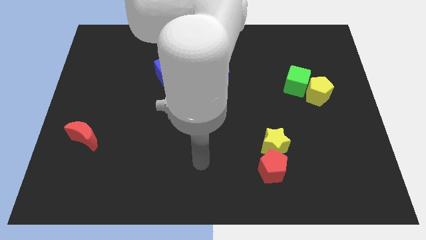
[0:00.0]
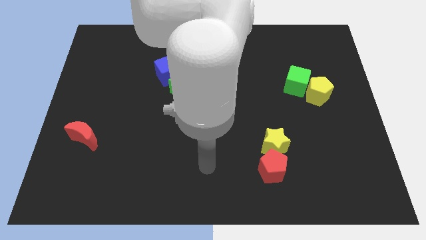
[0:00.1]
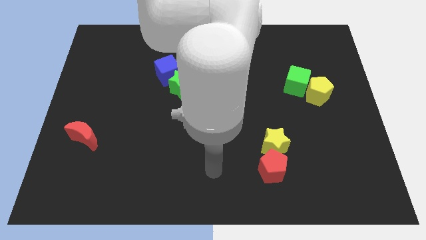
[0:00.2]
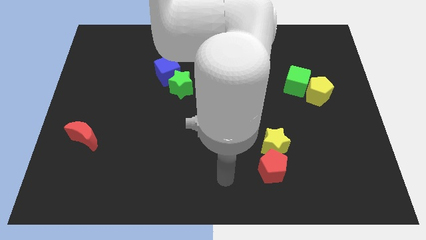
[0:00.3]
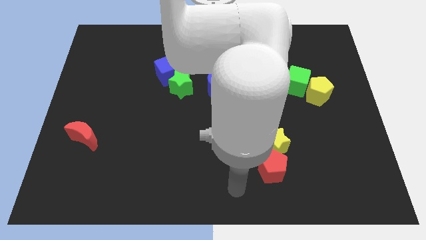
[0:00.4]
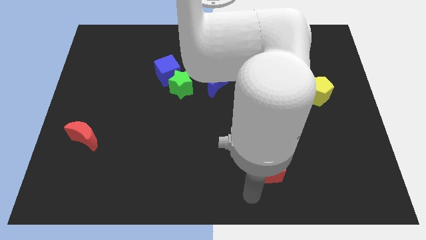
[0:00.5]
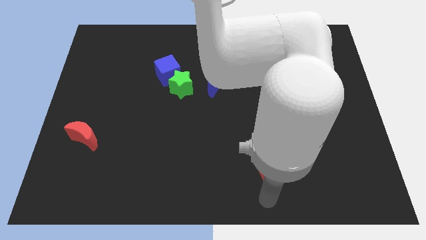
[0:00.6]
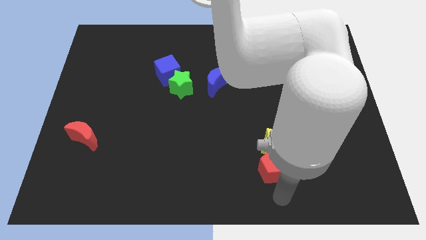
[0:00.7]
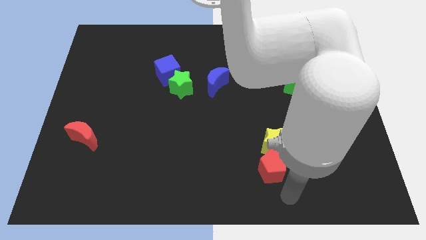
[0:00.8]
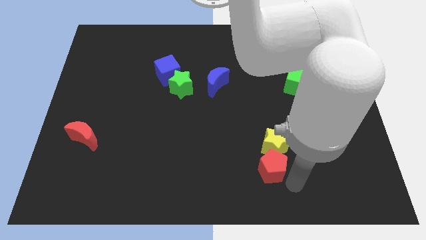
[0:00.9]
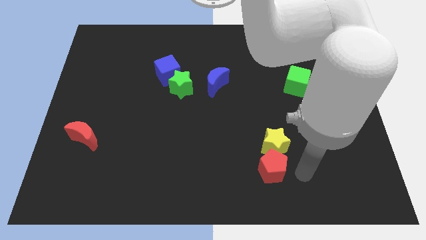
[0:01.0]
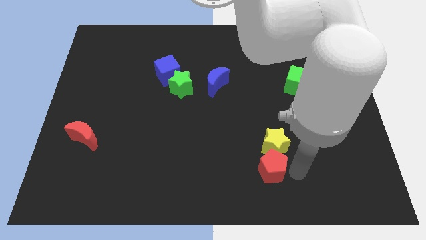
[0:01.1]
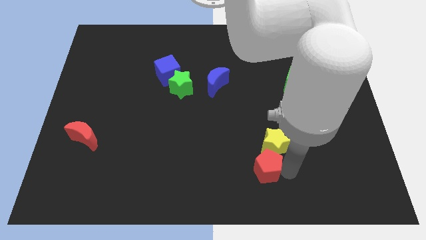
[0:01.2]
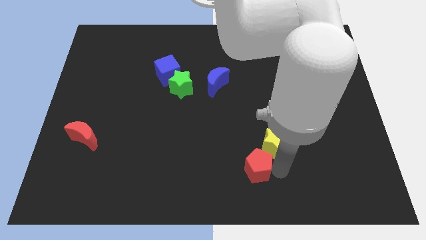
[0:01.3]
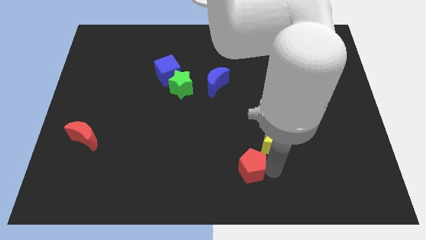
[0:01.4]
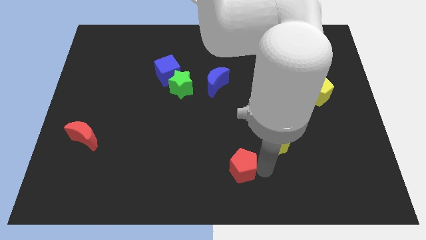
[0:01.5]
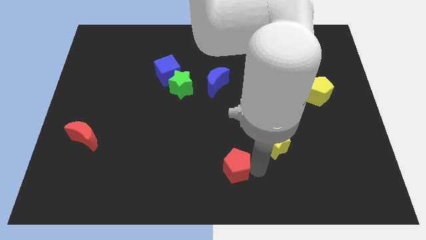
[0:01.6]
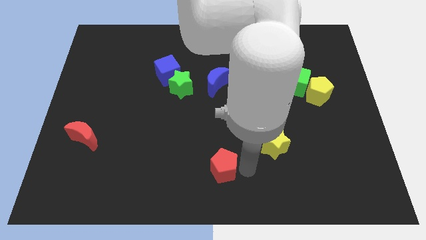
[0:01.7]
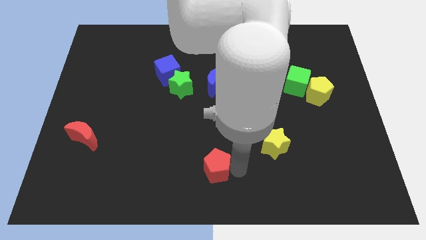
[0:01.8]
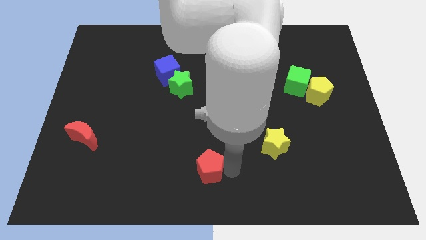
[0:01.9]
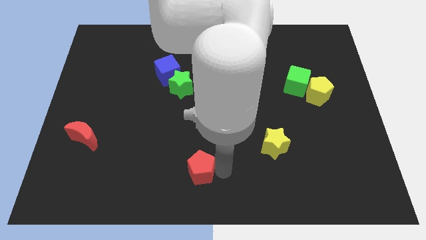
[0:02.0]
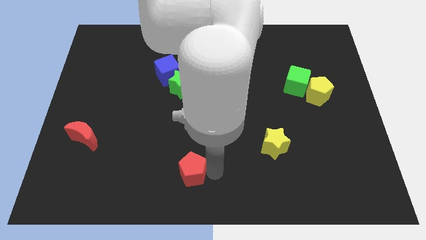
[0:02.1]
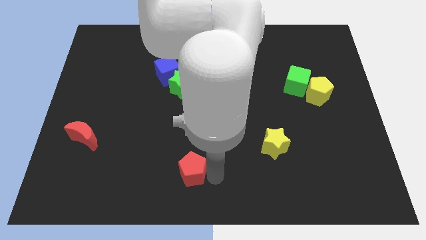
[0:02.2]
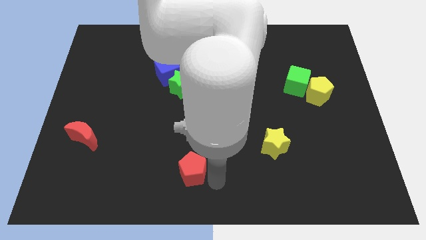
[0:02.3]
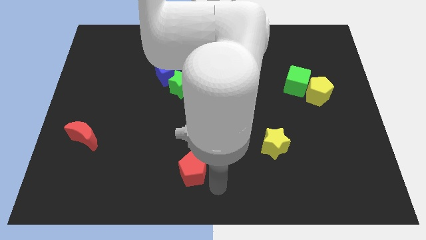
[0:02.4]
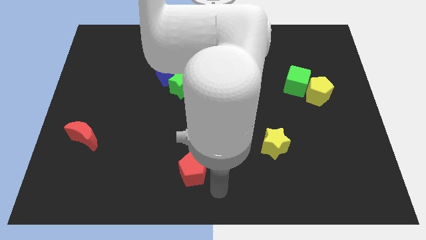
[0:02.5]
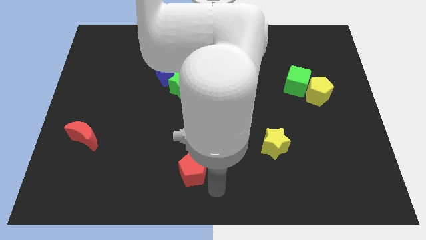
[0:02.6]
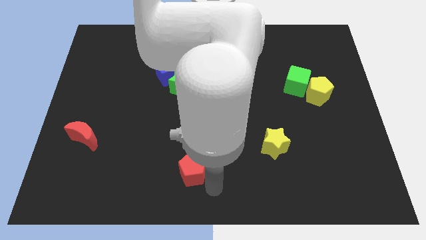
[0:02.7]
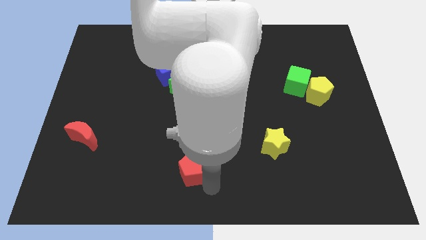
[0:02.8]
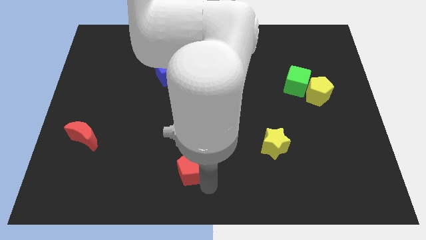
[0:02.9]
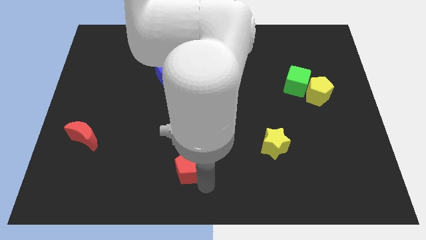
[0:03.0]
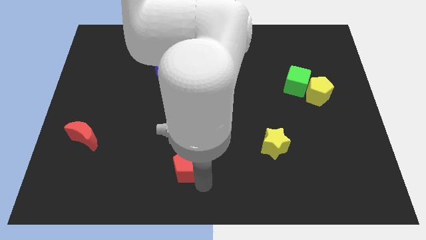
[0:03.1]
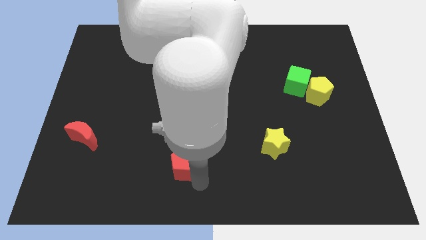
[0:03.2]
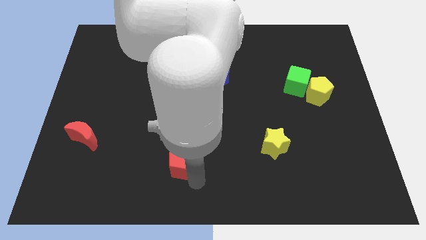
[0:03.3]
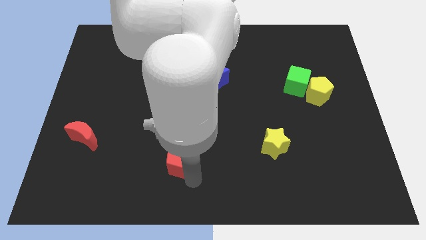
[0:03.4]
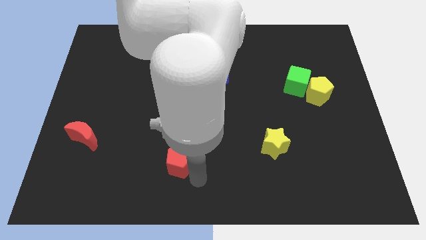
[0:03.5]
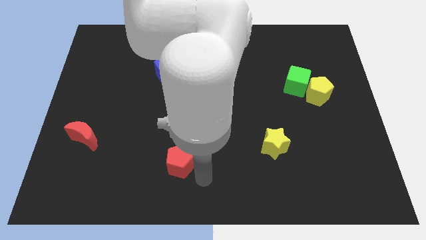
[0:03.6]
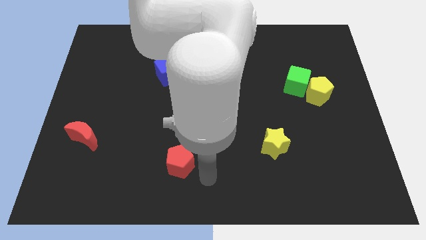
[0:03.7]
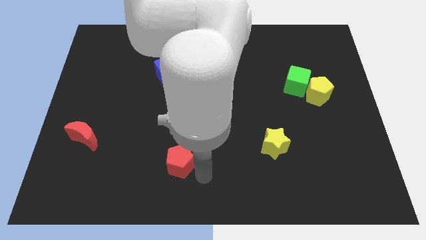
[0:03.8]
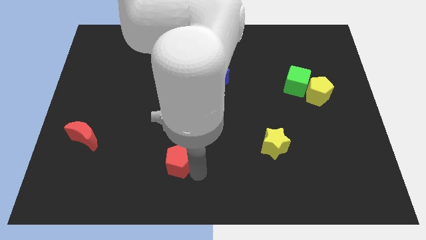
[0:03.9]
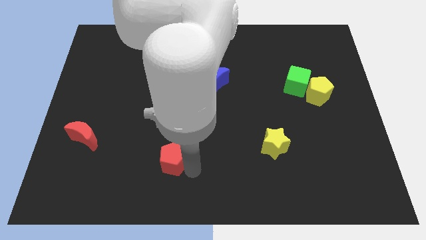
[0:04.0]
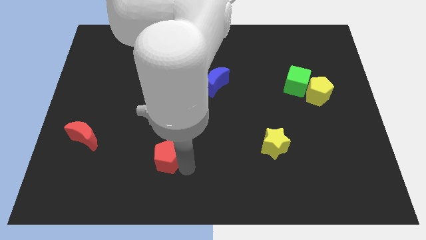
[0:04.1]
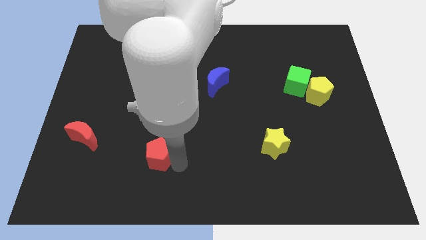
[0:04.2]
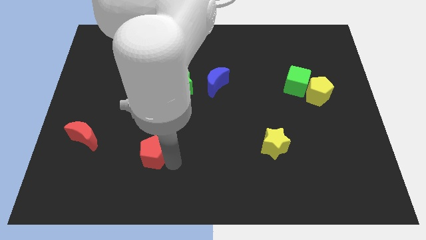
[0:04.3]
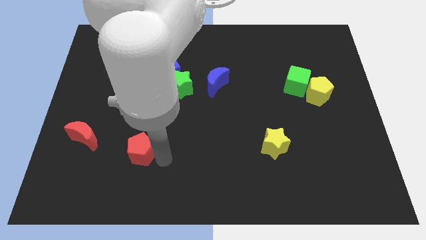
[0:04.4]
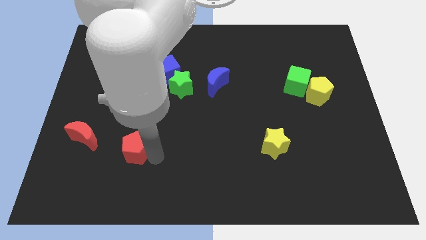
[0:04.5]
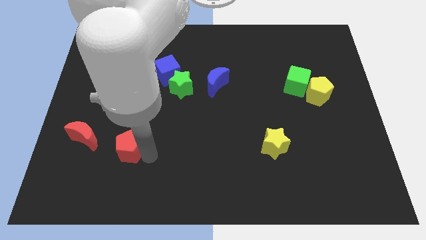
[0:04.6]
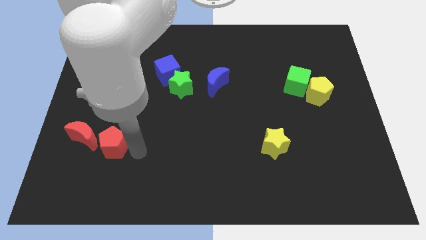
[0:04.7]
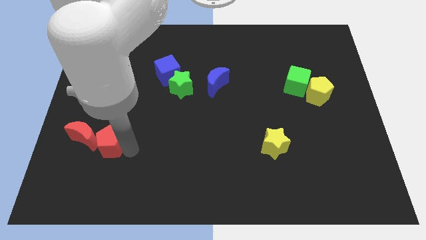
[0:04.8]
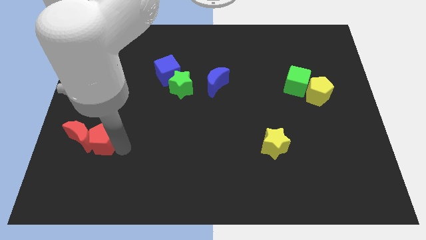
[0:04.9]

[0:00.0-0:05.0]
push the red pentagon towards the red moon

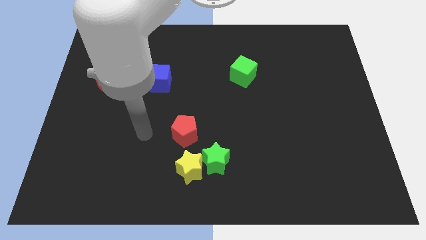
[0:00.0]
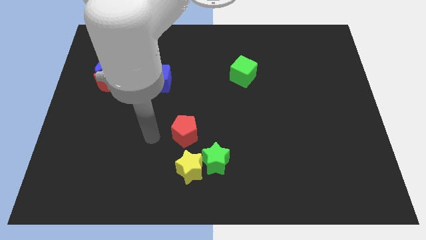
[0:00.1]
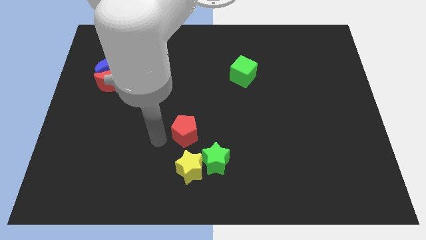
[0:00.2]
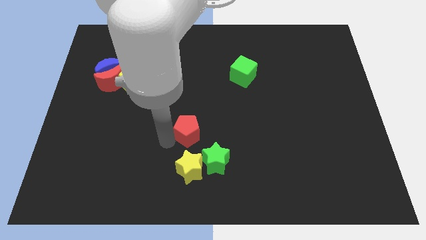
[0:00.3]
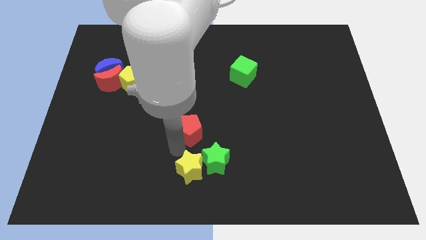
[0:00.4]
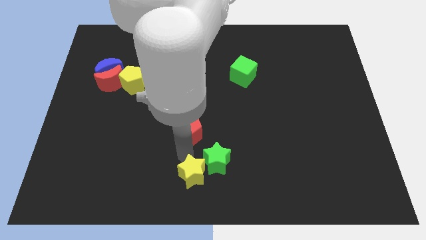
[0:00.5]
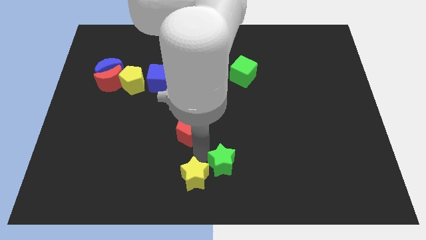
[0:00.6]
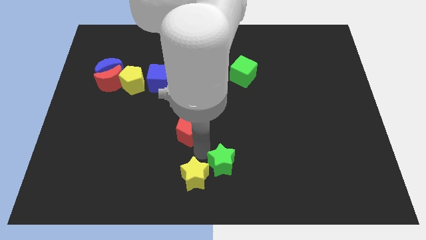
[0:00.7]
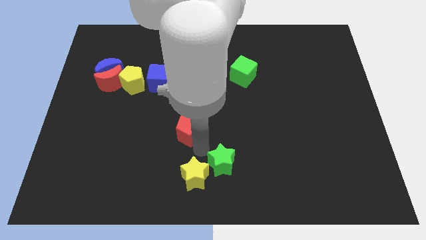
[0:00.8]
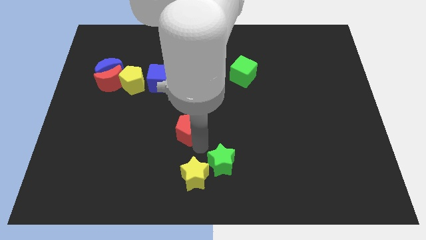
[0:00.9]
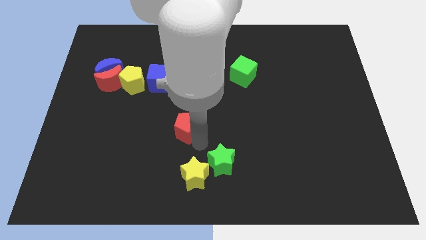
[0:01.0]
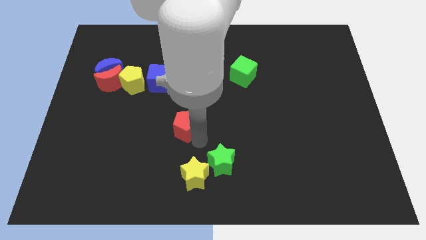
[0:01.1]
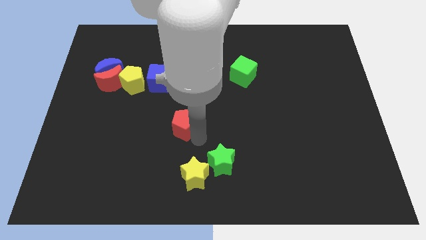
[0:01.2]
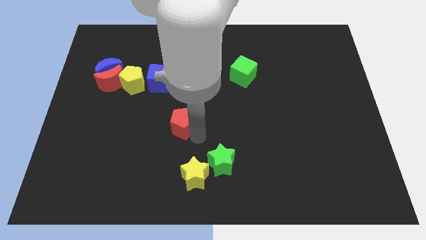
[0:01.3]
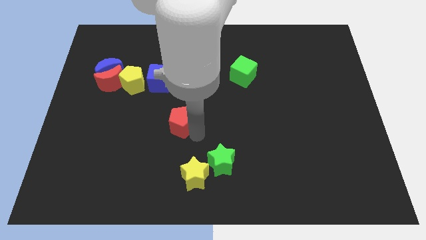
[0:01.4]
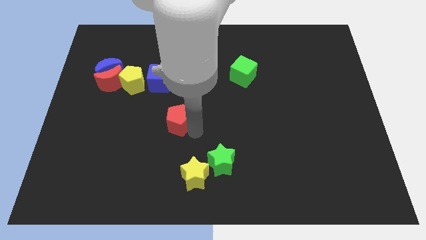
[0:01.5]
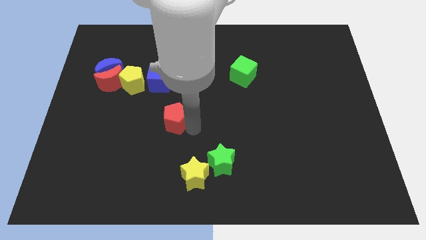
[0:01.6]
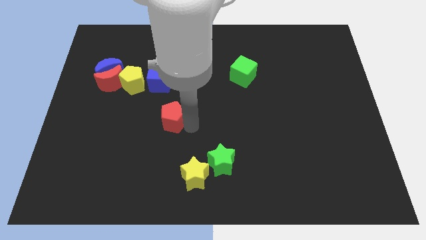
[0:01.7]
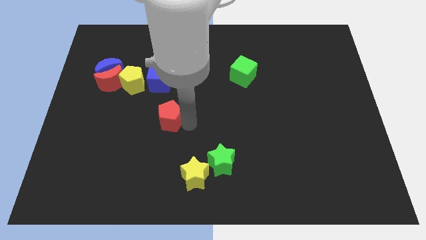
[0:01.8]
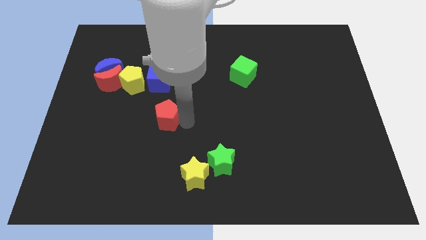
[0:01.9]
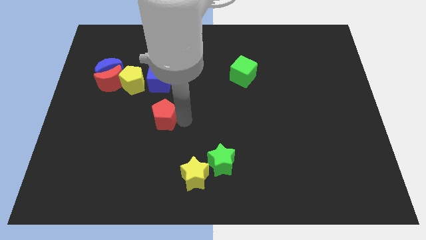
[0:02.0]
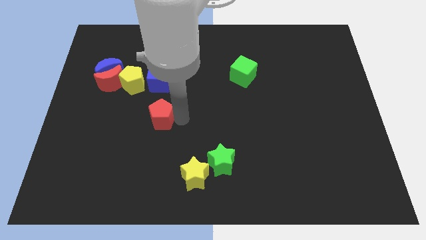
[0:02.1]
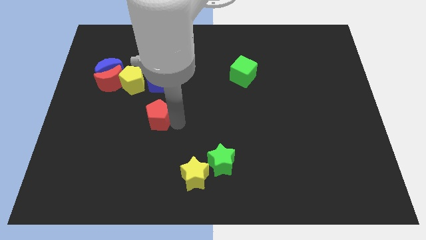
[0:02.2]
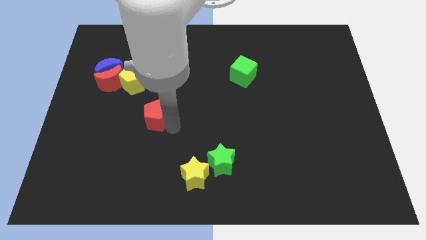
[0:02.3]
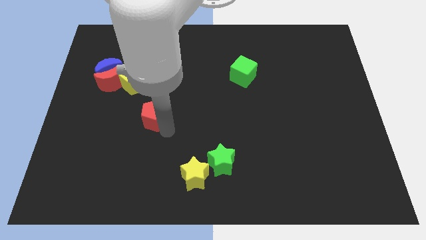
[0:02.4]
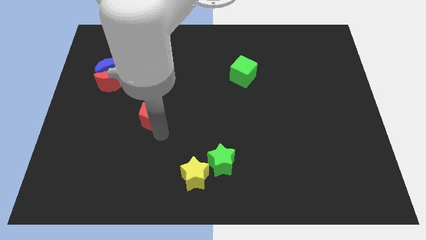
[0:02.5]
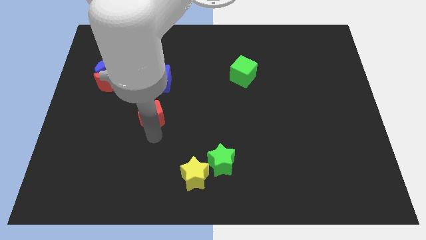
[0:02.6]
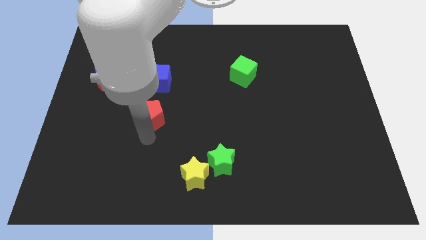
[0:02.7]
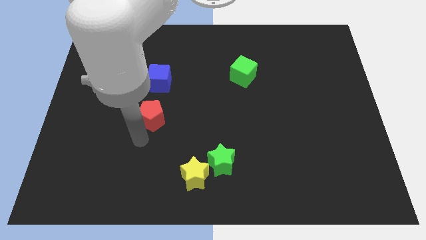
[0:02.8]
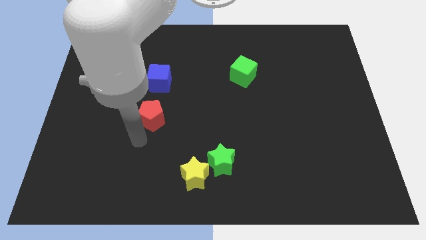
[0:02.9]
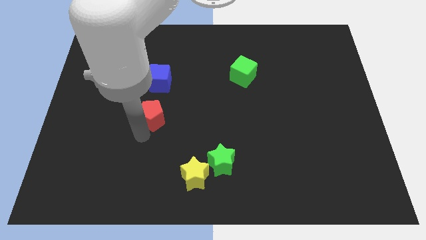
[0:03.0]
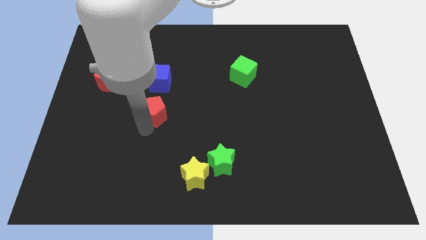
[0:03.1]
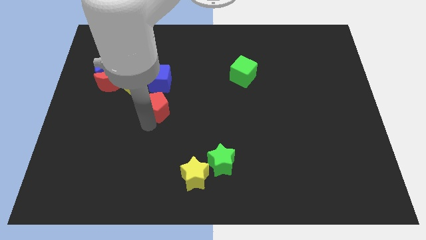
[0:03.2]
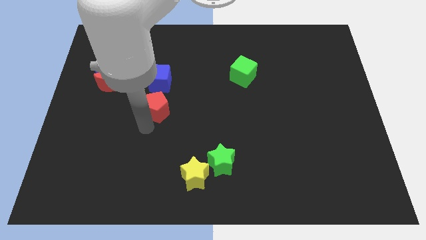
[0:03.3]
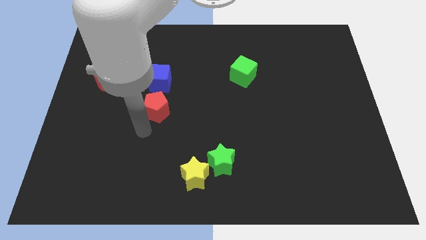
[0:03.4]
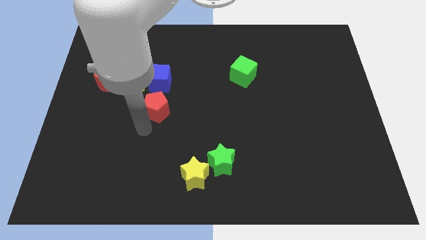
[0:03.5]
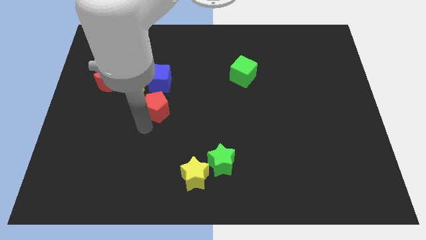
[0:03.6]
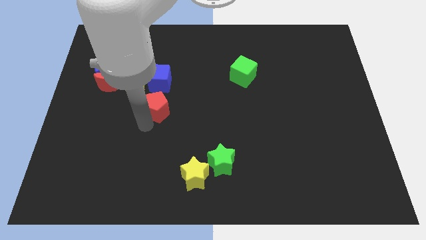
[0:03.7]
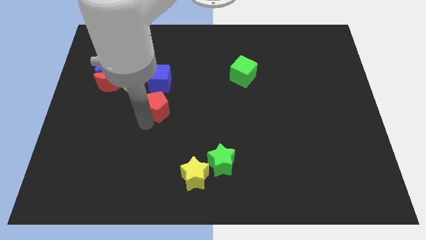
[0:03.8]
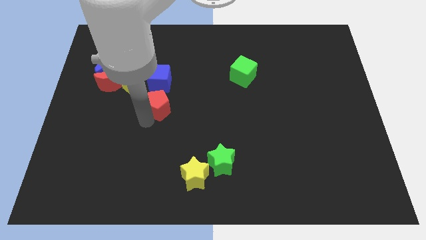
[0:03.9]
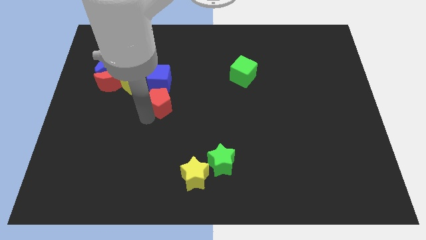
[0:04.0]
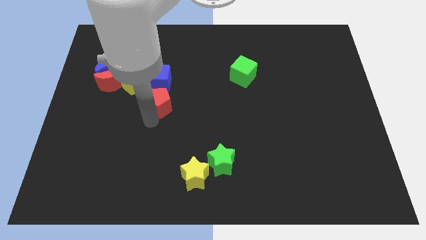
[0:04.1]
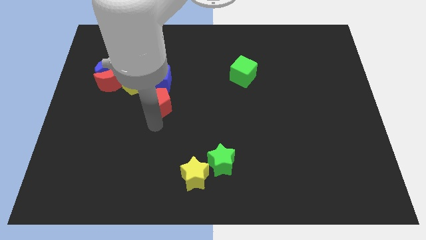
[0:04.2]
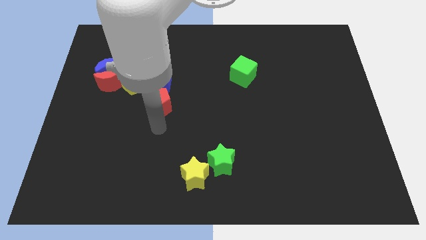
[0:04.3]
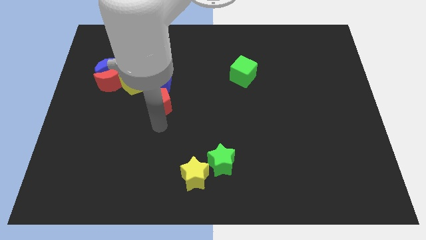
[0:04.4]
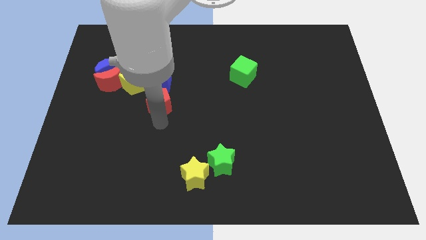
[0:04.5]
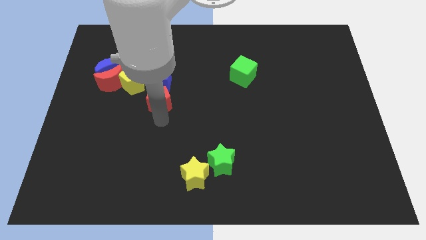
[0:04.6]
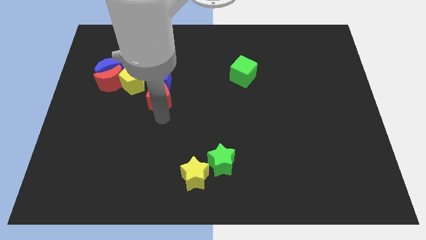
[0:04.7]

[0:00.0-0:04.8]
push the red pentagon close to the blue cube
